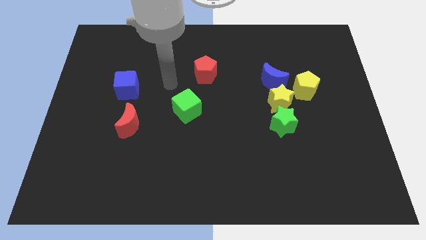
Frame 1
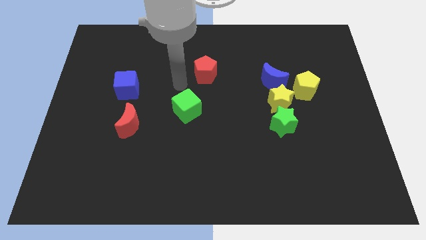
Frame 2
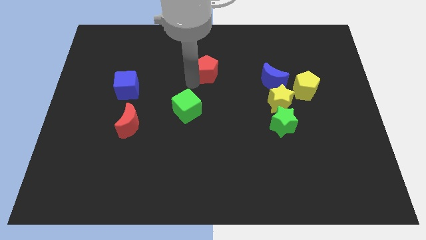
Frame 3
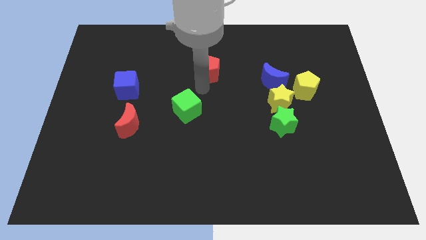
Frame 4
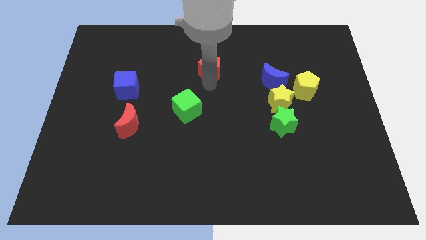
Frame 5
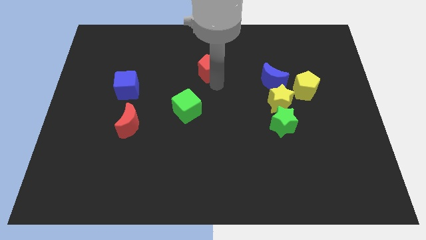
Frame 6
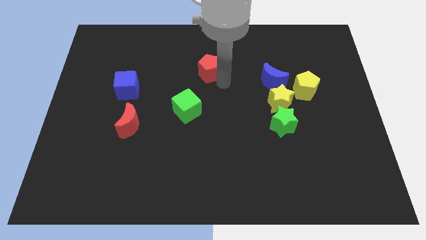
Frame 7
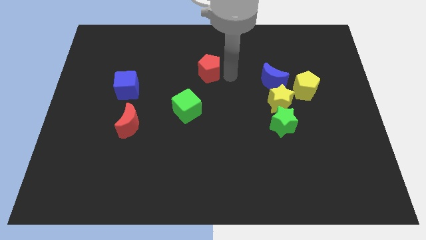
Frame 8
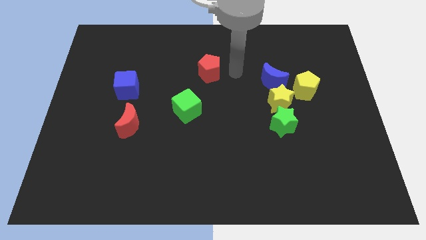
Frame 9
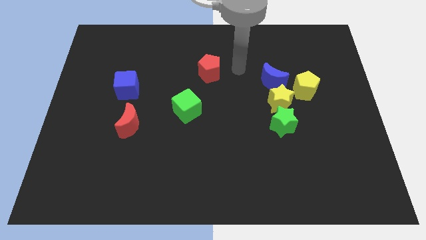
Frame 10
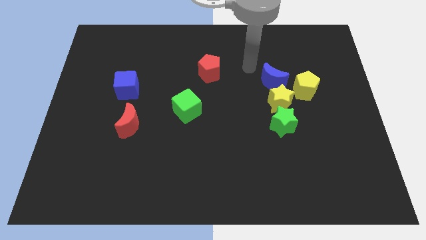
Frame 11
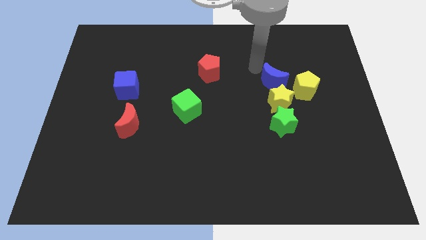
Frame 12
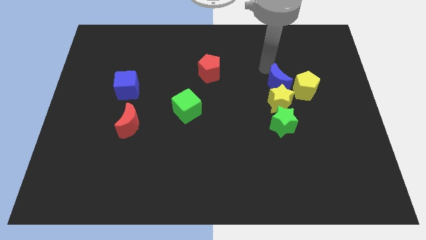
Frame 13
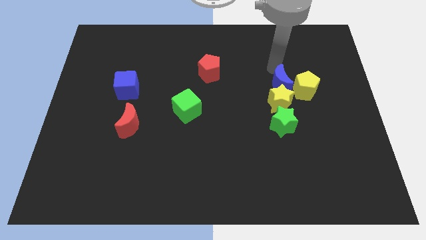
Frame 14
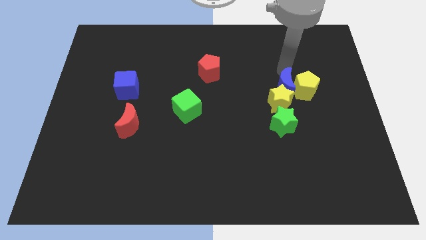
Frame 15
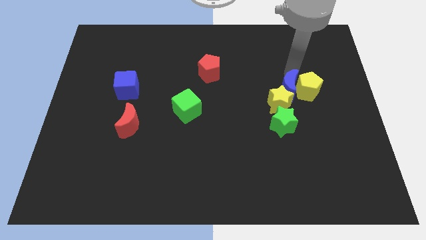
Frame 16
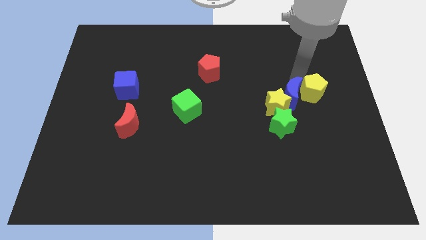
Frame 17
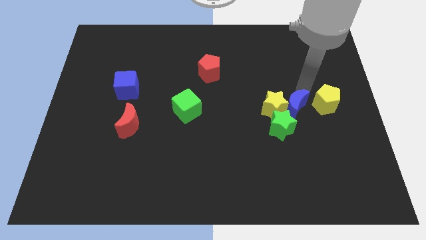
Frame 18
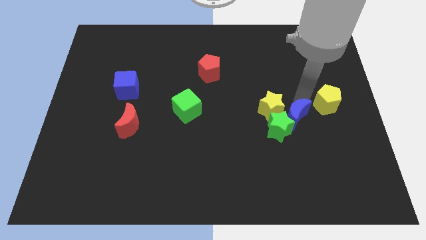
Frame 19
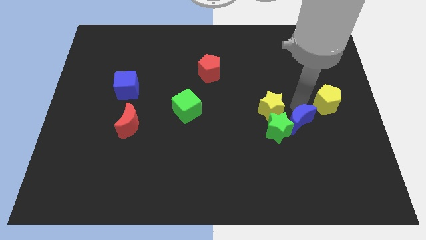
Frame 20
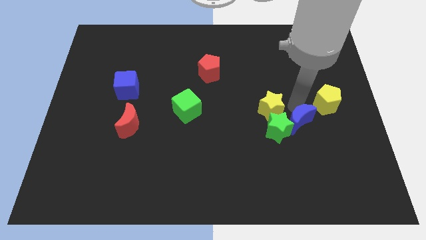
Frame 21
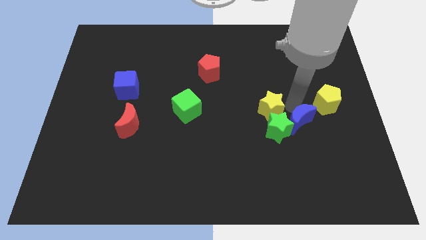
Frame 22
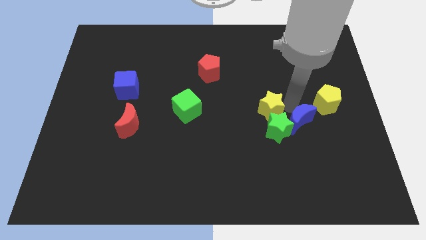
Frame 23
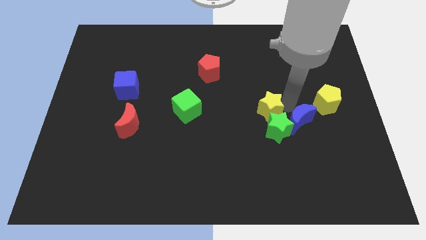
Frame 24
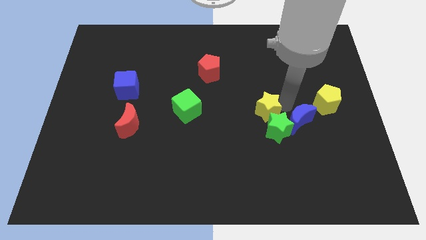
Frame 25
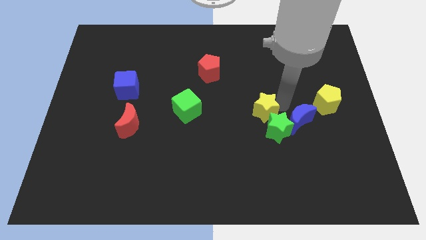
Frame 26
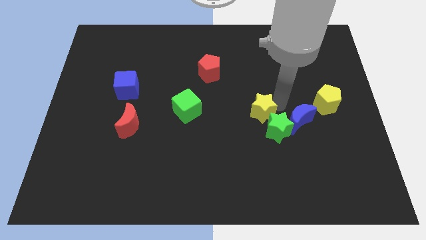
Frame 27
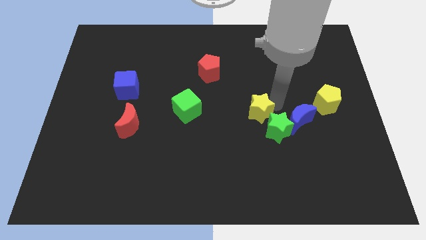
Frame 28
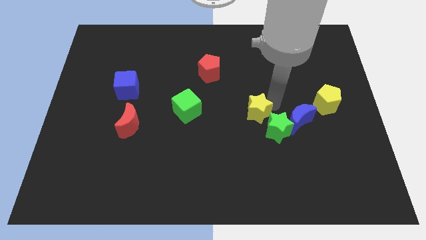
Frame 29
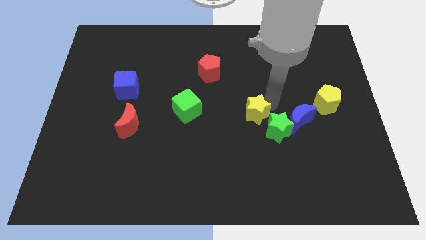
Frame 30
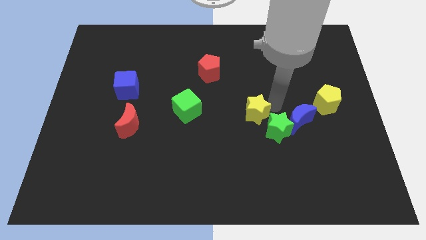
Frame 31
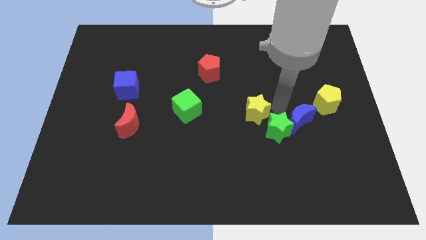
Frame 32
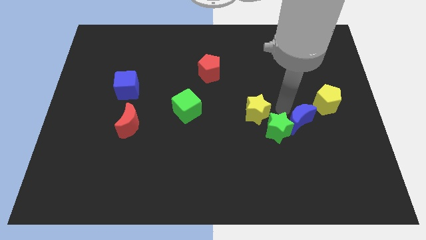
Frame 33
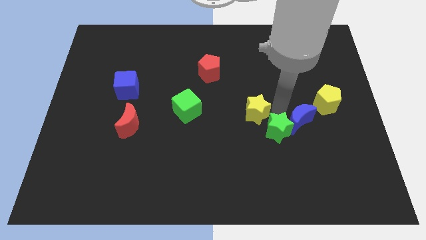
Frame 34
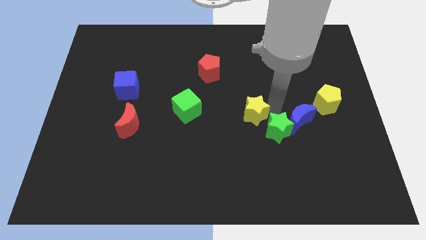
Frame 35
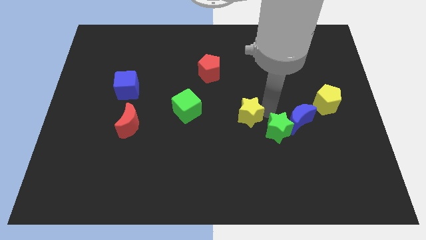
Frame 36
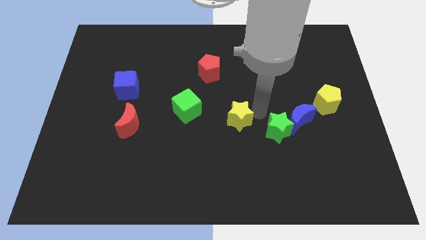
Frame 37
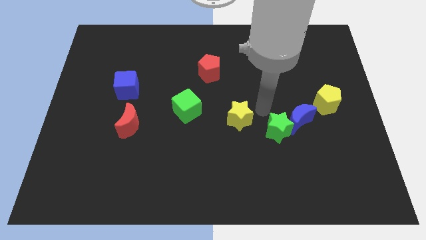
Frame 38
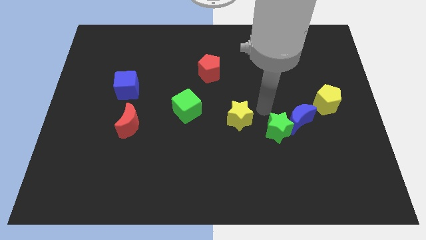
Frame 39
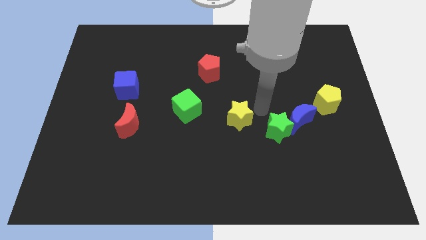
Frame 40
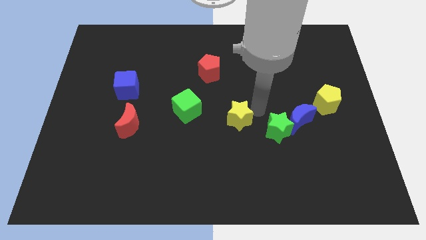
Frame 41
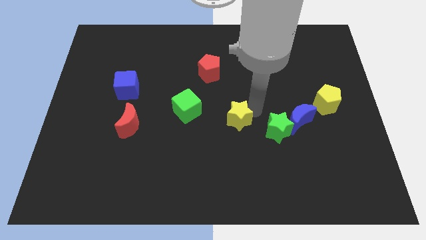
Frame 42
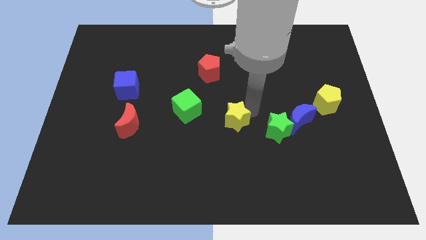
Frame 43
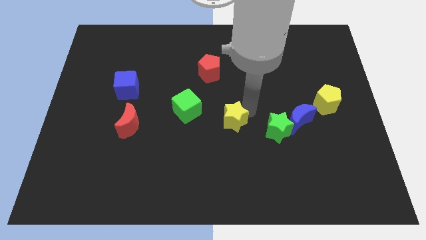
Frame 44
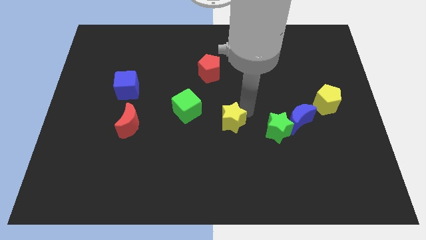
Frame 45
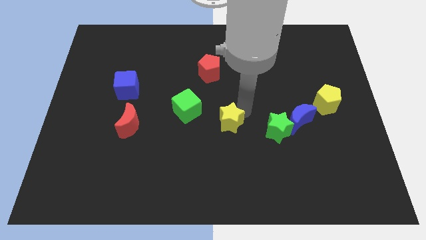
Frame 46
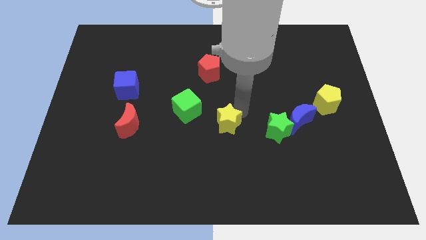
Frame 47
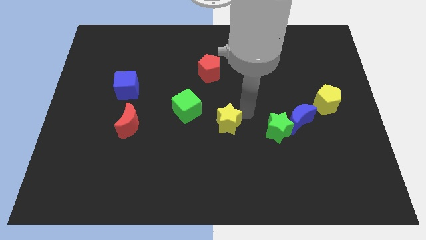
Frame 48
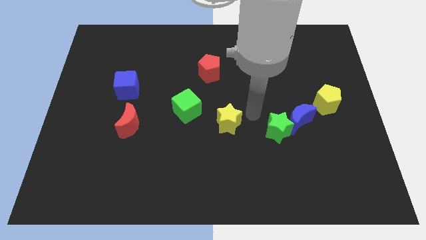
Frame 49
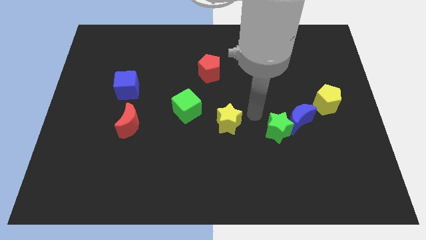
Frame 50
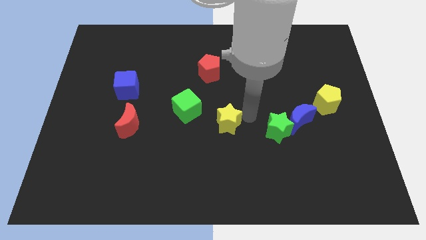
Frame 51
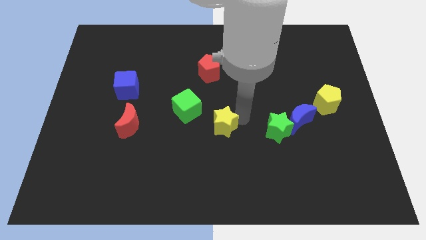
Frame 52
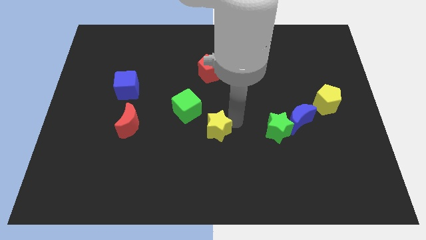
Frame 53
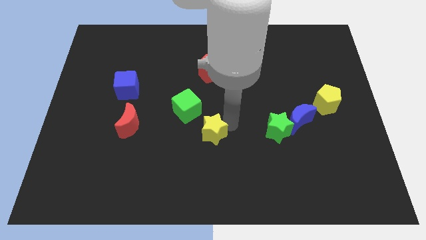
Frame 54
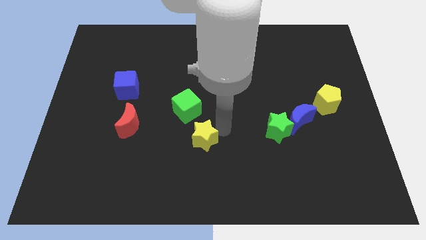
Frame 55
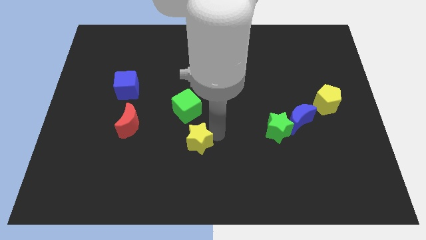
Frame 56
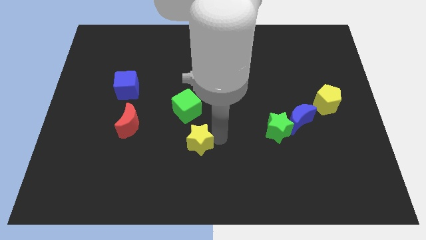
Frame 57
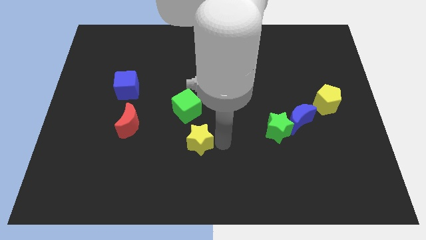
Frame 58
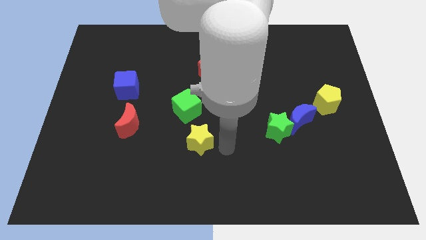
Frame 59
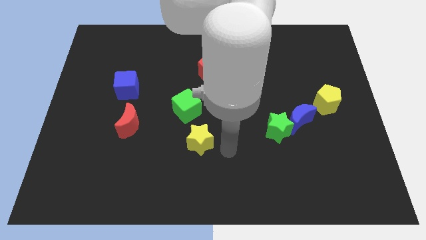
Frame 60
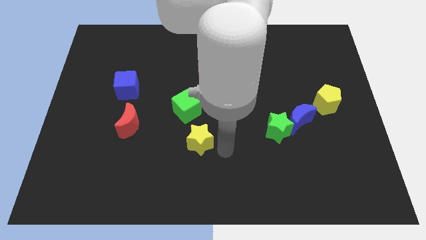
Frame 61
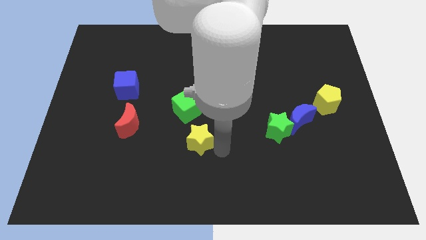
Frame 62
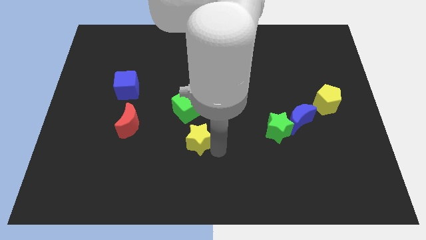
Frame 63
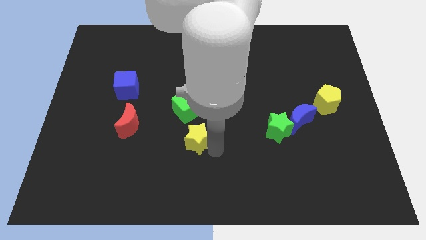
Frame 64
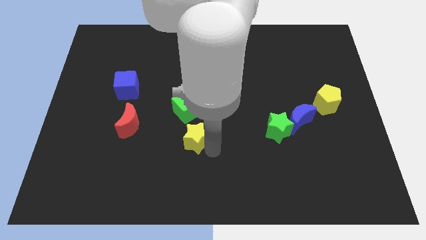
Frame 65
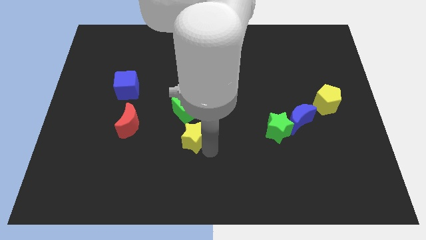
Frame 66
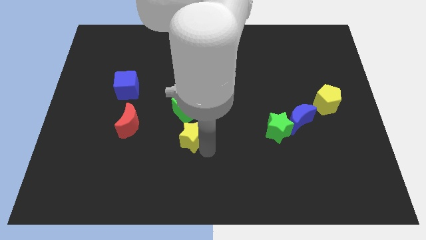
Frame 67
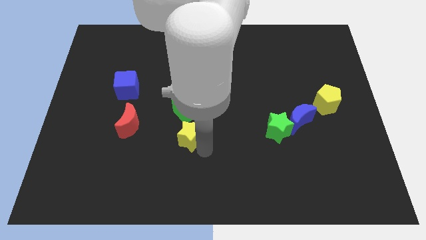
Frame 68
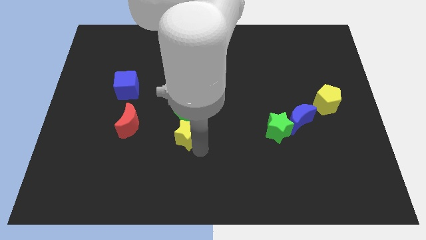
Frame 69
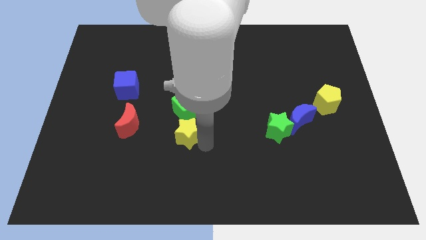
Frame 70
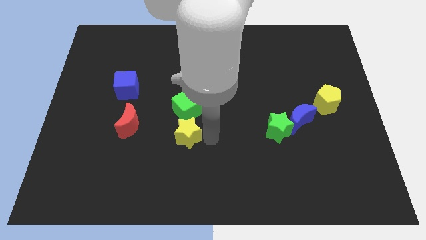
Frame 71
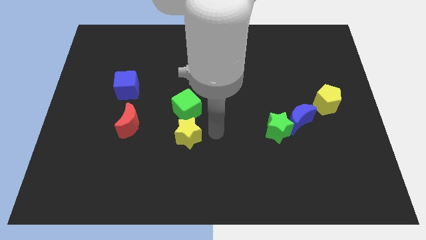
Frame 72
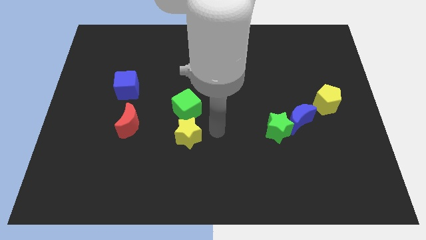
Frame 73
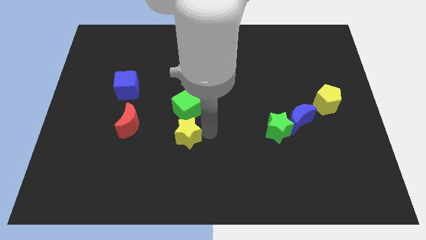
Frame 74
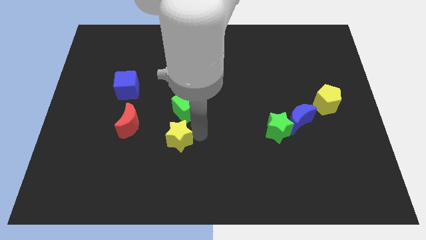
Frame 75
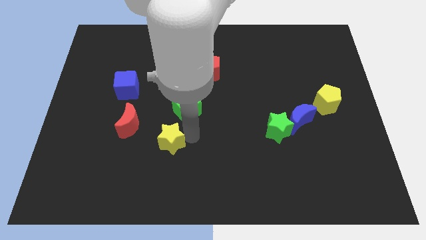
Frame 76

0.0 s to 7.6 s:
put the yellow star to the bottom right of the red moon
